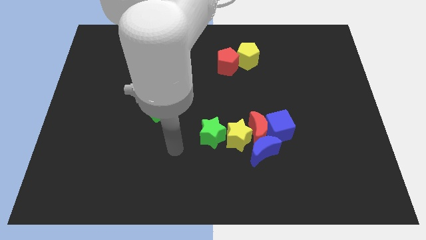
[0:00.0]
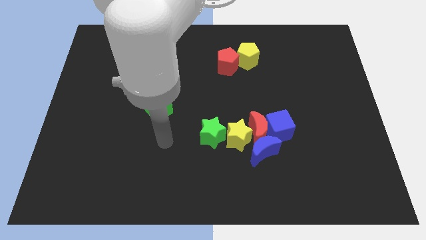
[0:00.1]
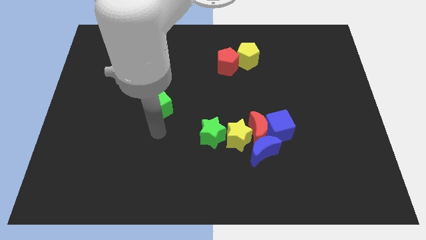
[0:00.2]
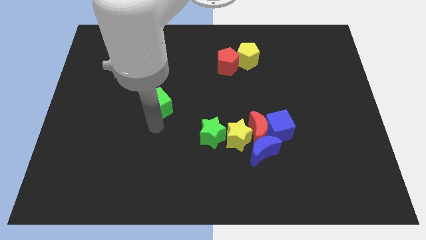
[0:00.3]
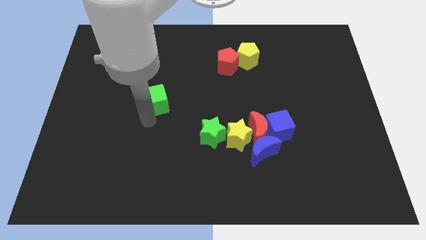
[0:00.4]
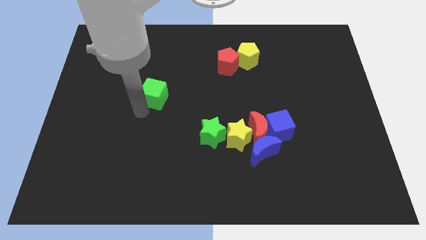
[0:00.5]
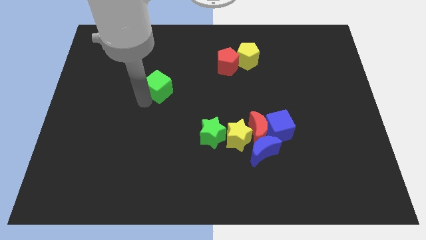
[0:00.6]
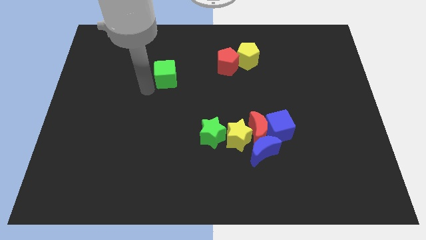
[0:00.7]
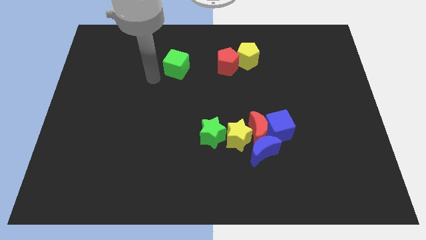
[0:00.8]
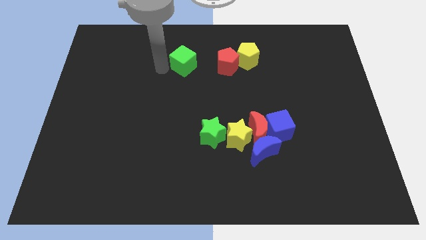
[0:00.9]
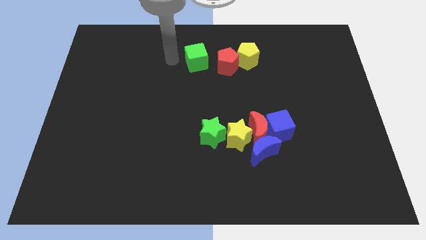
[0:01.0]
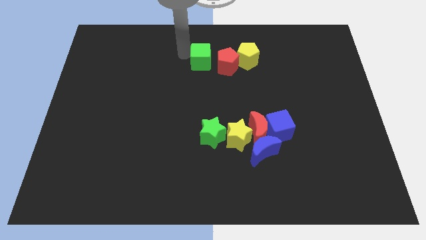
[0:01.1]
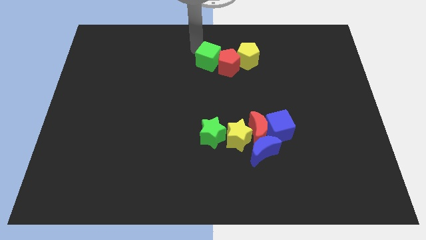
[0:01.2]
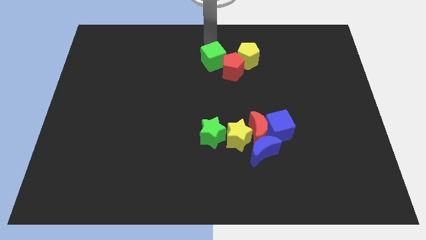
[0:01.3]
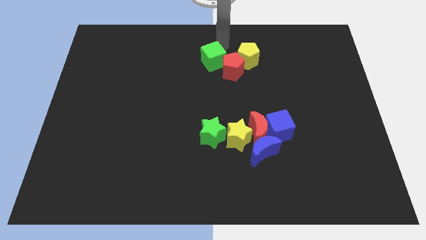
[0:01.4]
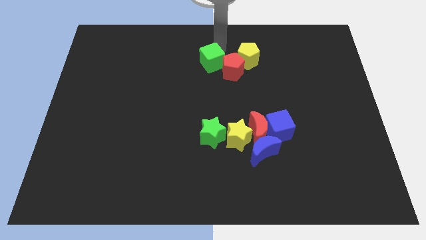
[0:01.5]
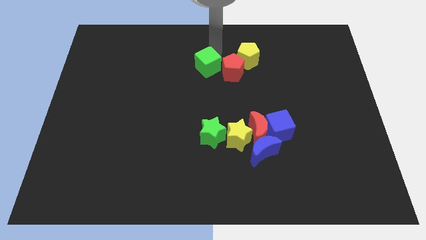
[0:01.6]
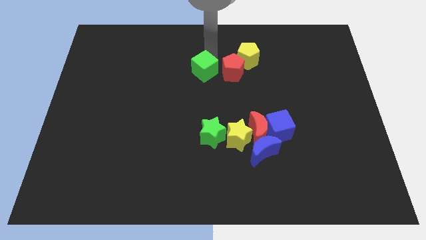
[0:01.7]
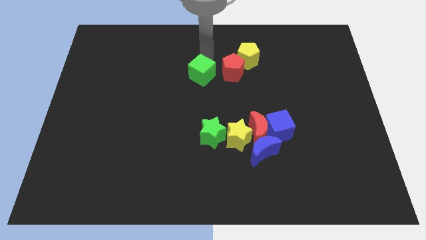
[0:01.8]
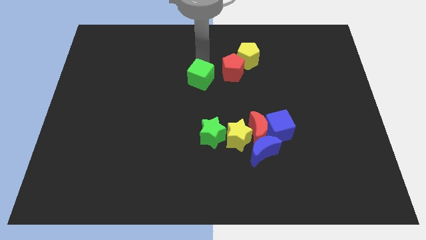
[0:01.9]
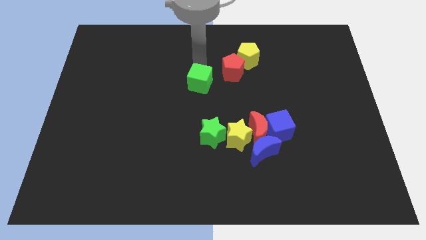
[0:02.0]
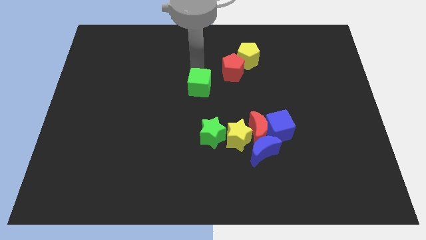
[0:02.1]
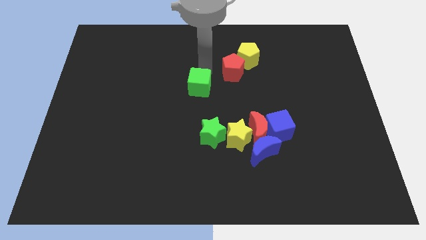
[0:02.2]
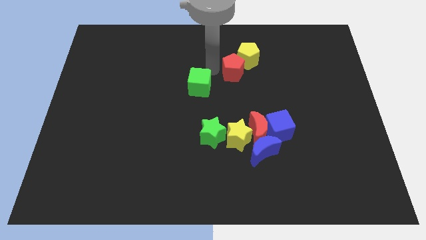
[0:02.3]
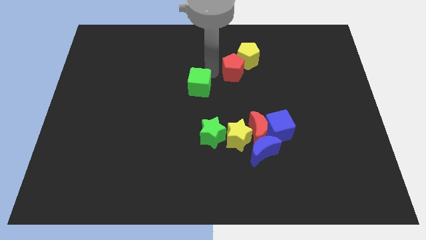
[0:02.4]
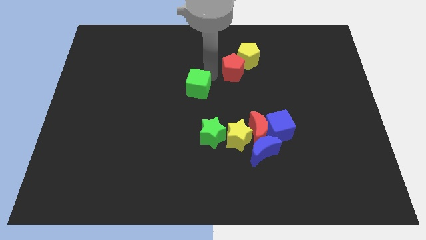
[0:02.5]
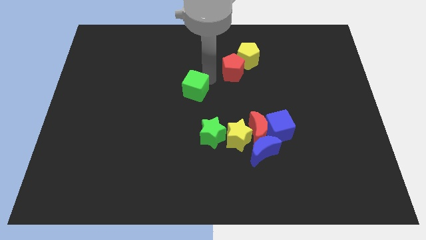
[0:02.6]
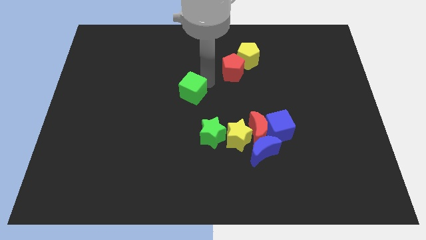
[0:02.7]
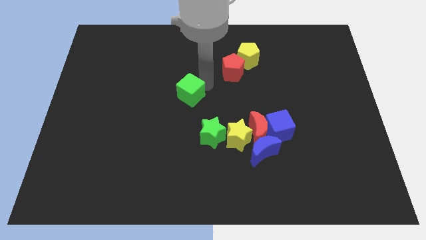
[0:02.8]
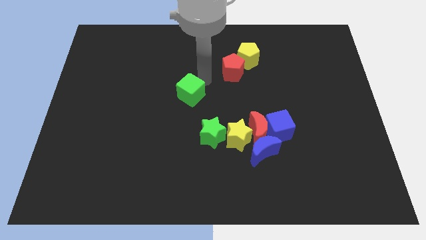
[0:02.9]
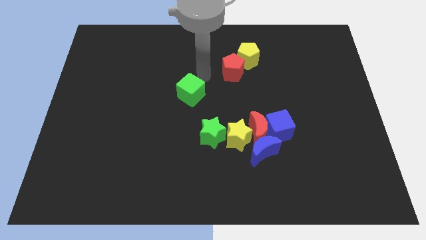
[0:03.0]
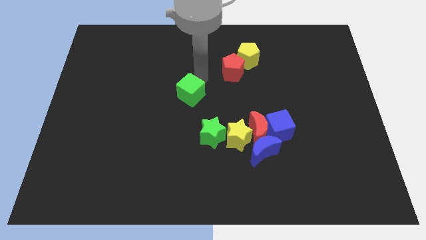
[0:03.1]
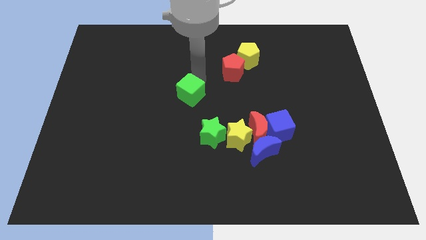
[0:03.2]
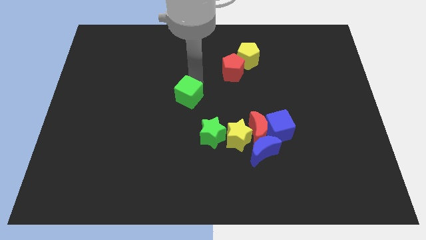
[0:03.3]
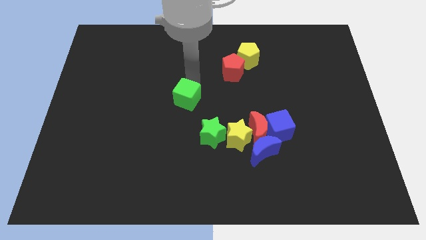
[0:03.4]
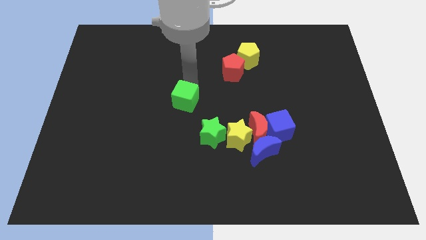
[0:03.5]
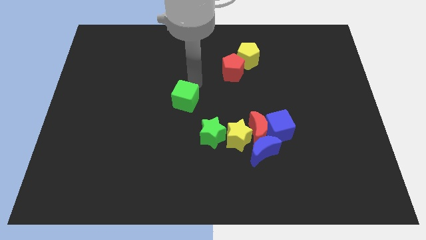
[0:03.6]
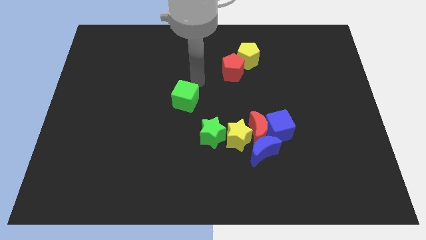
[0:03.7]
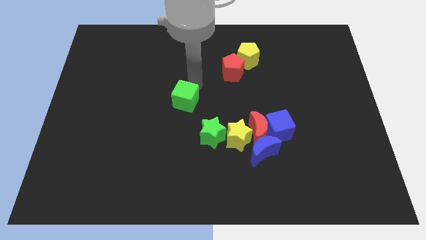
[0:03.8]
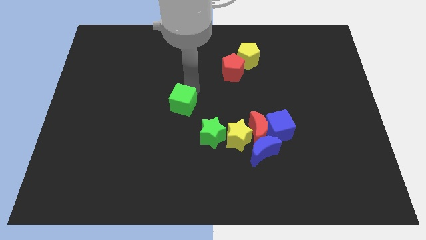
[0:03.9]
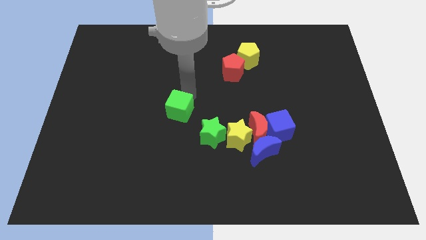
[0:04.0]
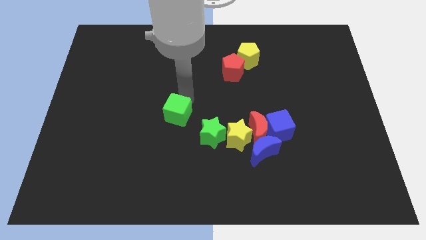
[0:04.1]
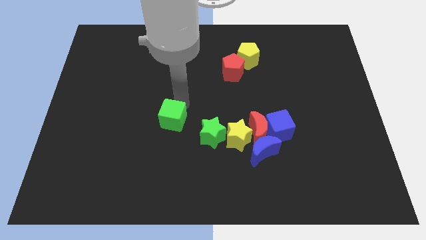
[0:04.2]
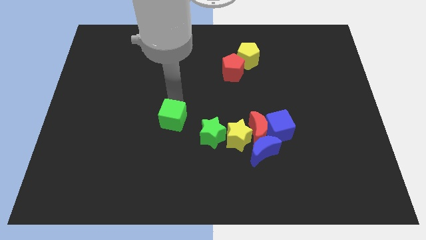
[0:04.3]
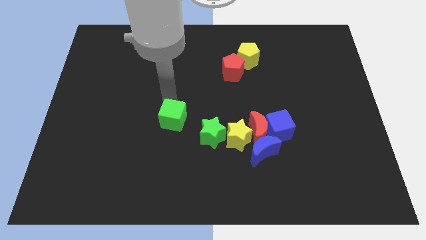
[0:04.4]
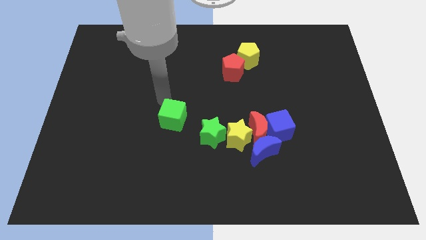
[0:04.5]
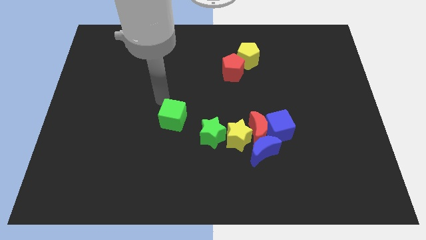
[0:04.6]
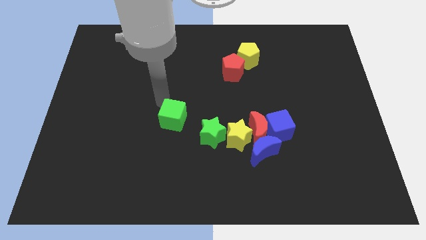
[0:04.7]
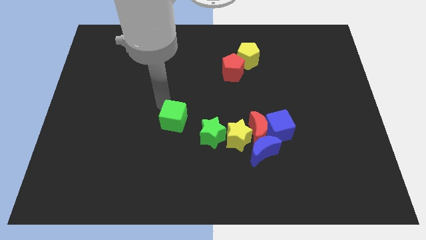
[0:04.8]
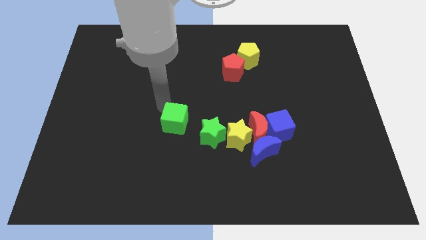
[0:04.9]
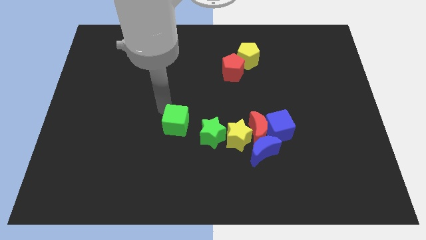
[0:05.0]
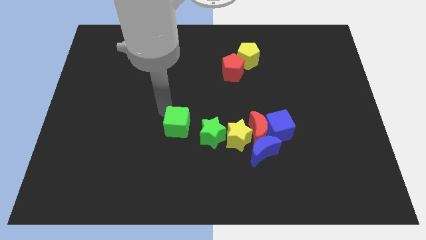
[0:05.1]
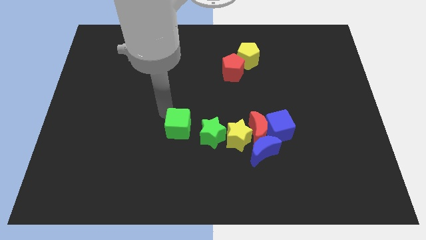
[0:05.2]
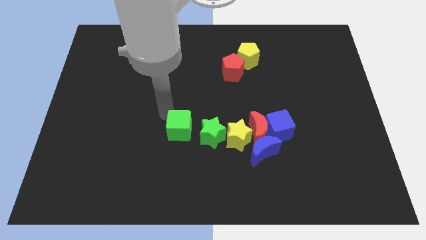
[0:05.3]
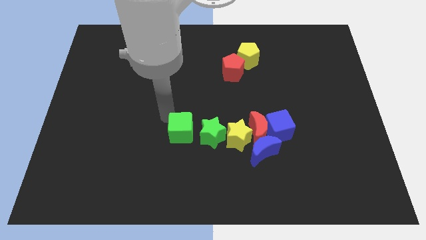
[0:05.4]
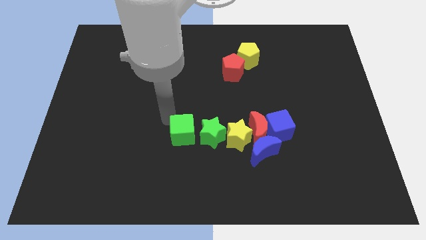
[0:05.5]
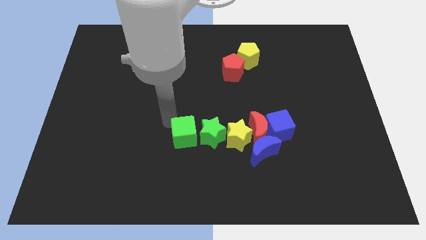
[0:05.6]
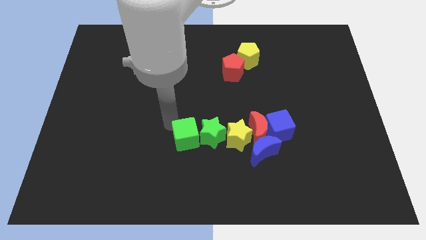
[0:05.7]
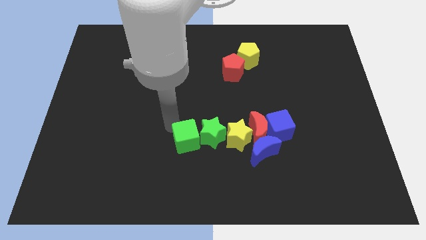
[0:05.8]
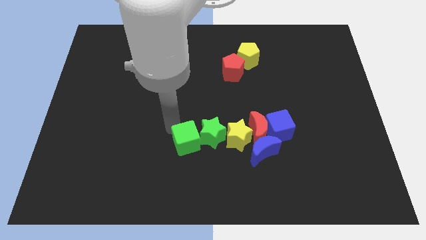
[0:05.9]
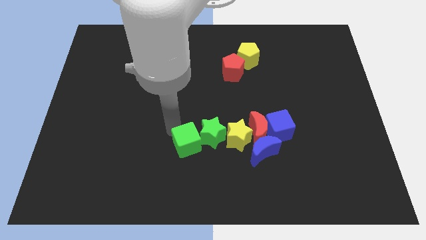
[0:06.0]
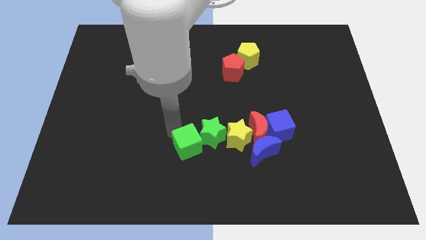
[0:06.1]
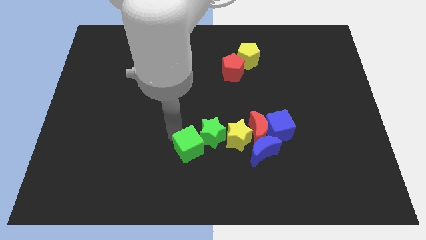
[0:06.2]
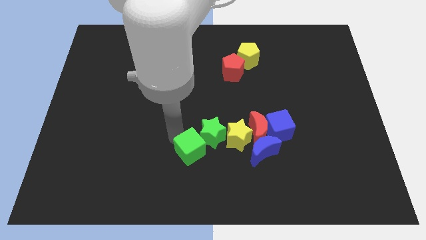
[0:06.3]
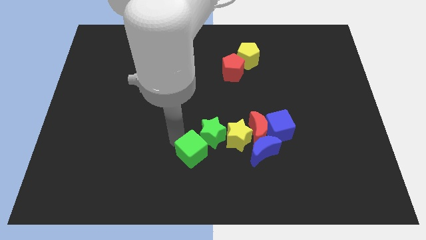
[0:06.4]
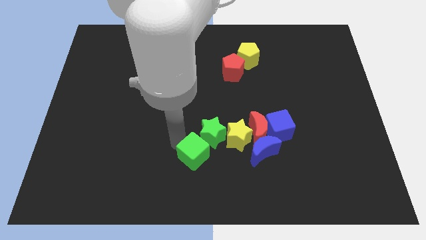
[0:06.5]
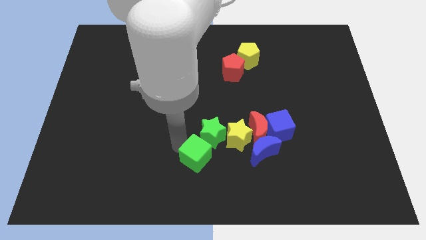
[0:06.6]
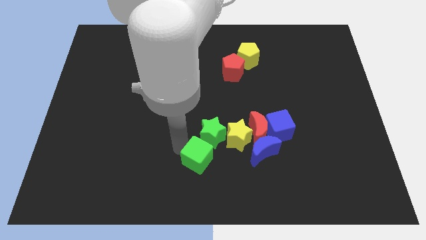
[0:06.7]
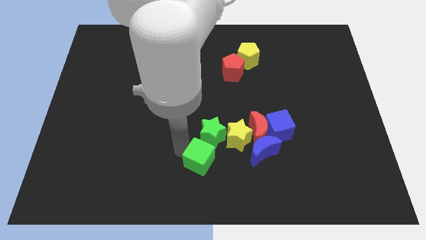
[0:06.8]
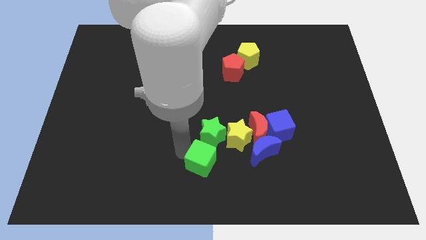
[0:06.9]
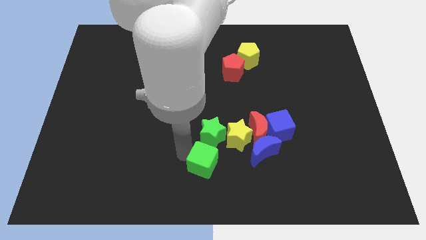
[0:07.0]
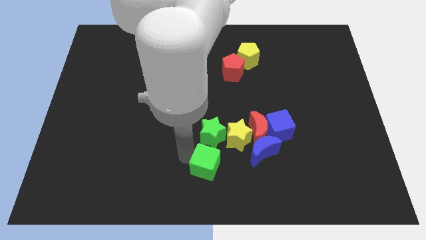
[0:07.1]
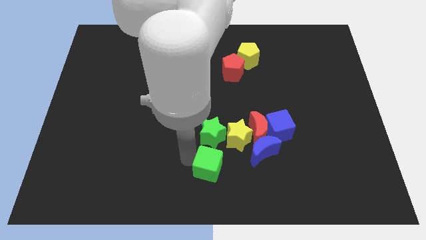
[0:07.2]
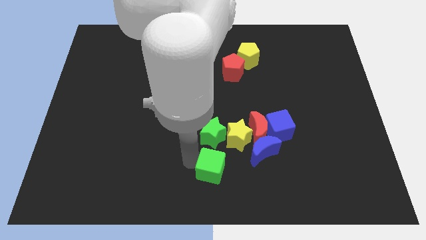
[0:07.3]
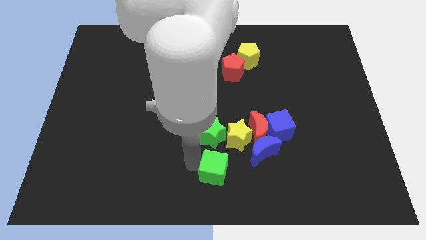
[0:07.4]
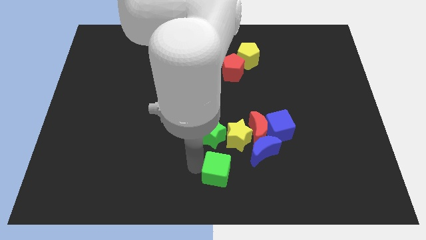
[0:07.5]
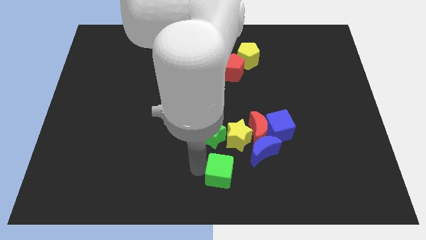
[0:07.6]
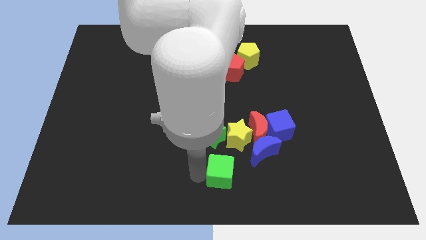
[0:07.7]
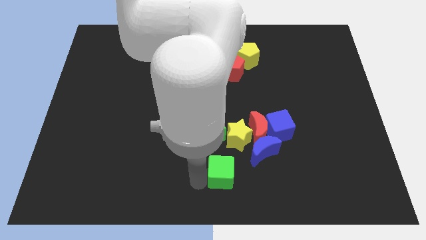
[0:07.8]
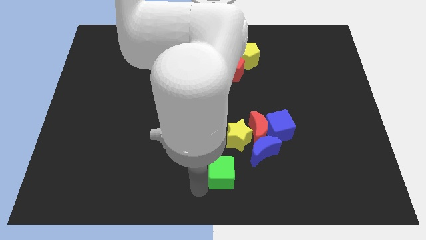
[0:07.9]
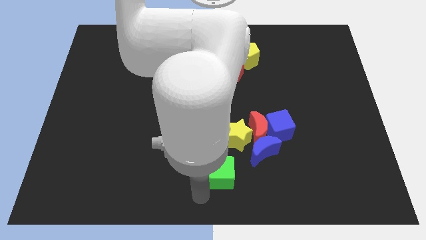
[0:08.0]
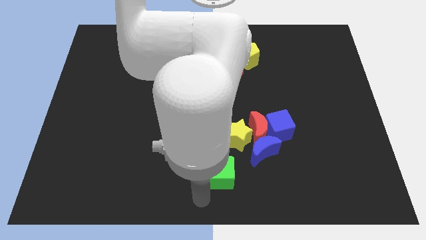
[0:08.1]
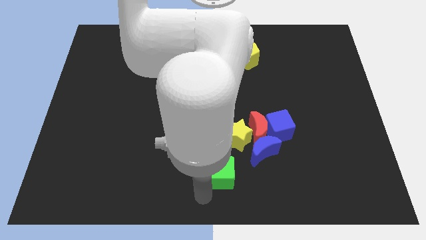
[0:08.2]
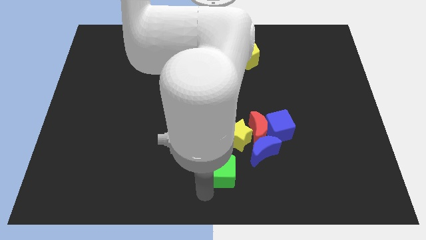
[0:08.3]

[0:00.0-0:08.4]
slide the green cube to the bottom right side of the green star
